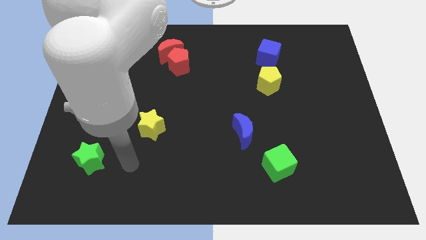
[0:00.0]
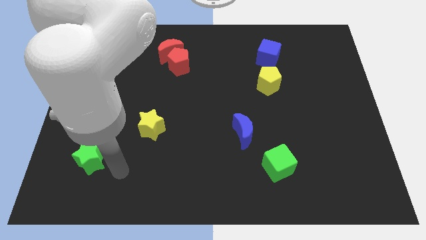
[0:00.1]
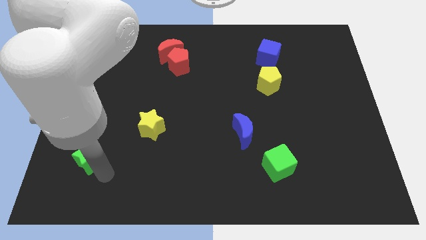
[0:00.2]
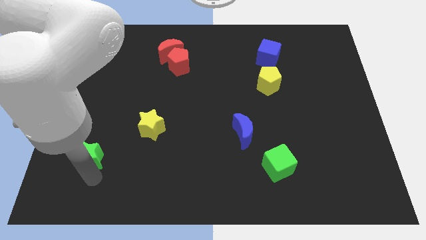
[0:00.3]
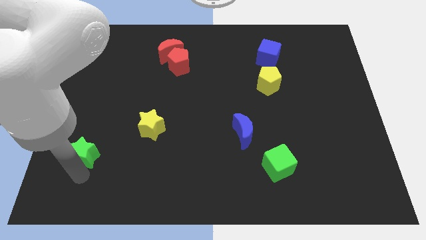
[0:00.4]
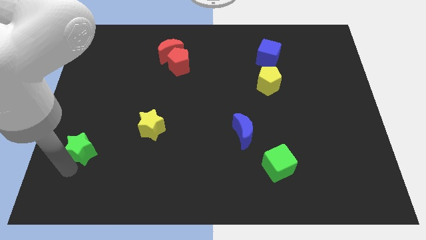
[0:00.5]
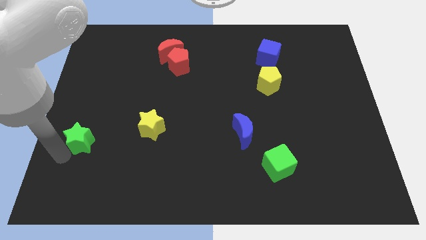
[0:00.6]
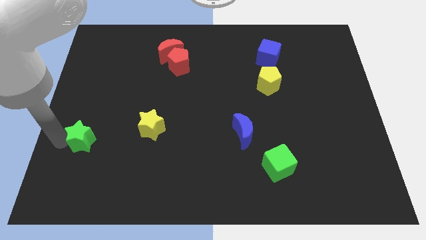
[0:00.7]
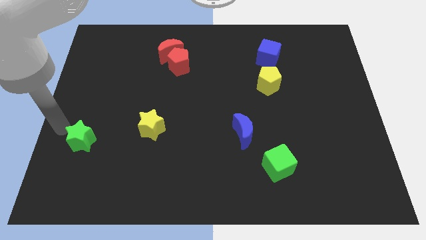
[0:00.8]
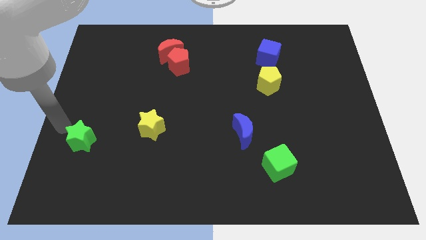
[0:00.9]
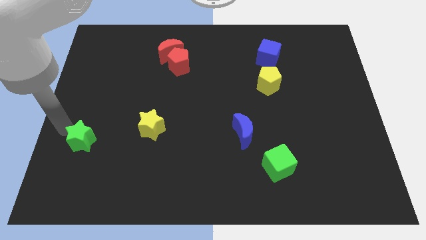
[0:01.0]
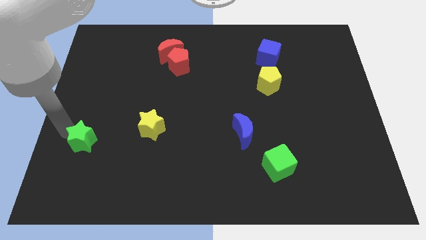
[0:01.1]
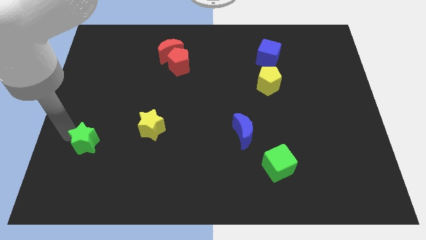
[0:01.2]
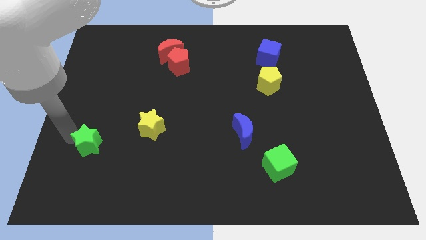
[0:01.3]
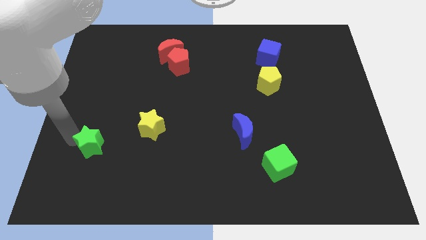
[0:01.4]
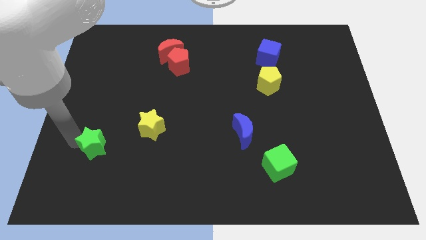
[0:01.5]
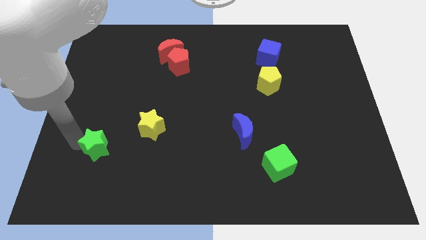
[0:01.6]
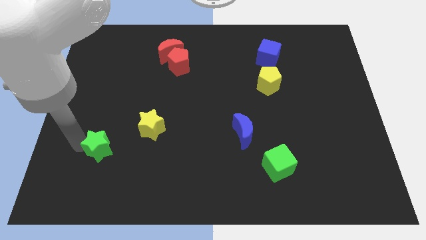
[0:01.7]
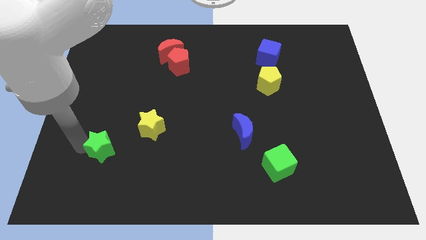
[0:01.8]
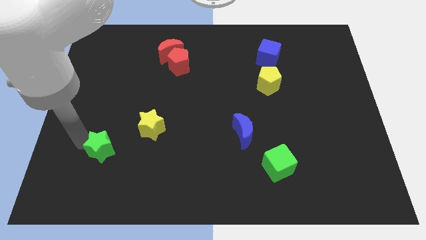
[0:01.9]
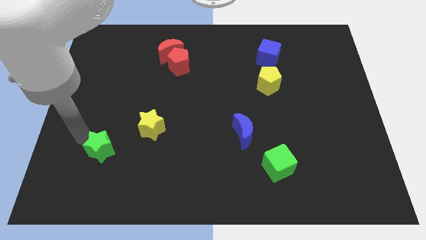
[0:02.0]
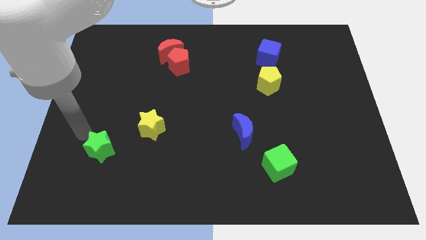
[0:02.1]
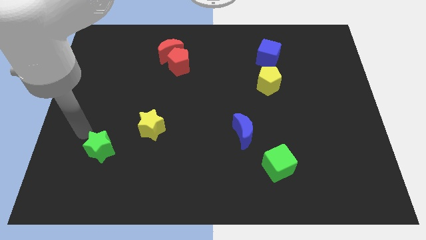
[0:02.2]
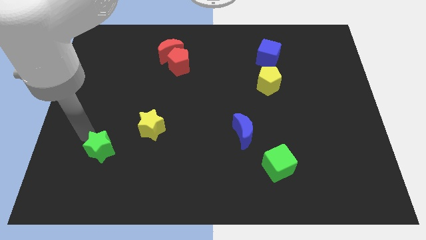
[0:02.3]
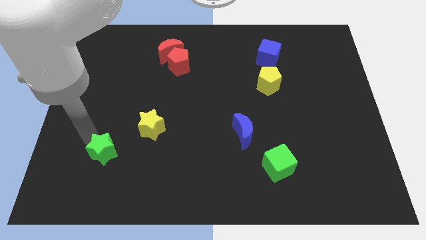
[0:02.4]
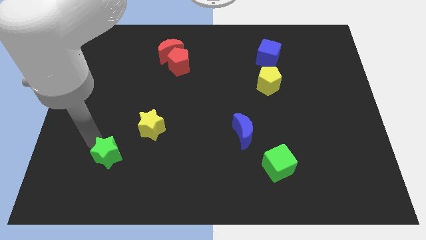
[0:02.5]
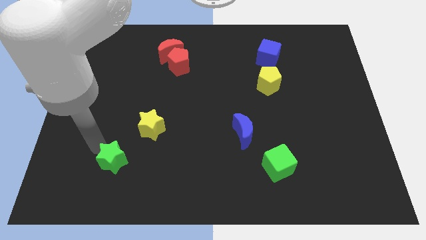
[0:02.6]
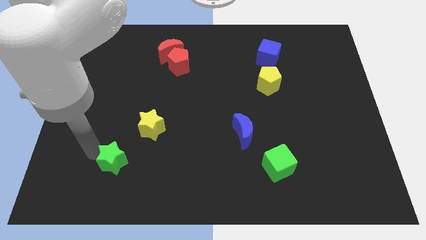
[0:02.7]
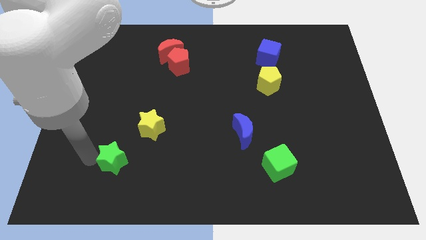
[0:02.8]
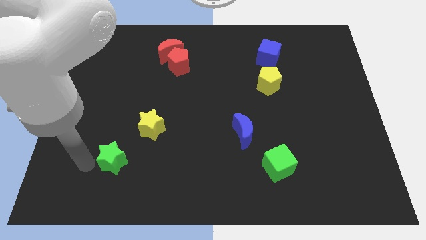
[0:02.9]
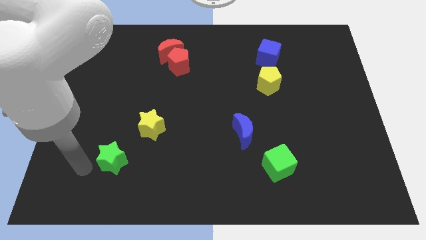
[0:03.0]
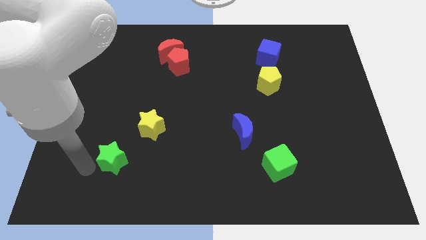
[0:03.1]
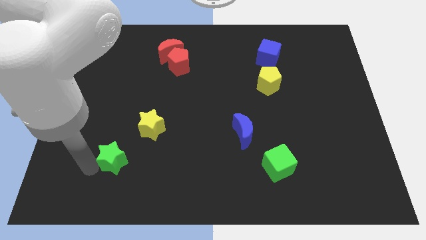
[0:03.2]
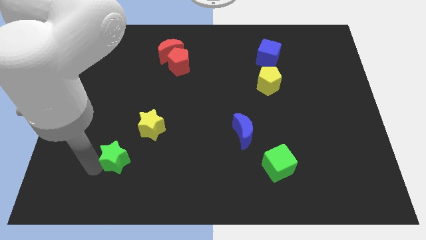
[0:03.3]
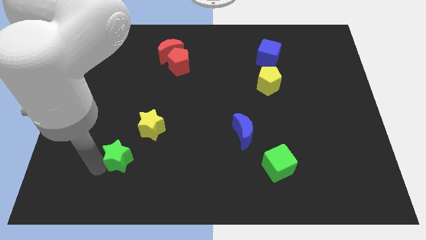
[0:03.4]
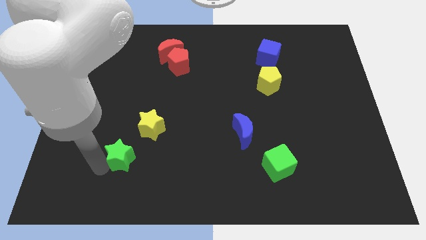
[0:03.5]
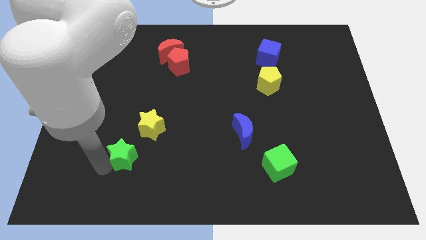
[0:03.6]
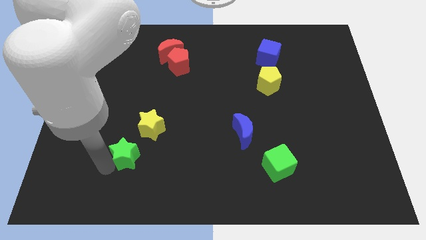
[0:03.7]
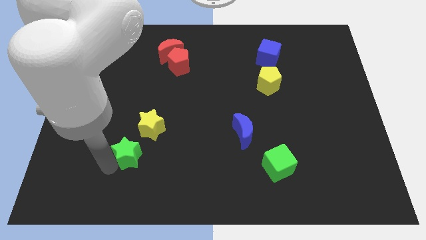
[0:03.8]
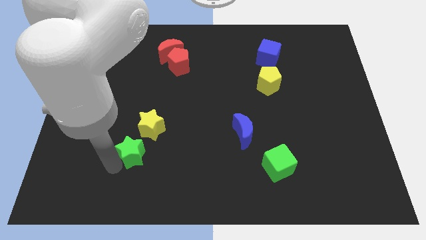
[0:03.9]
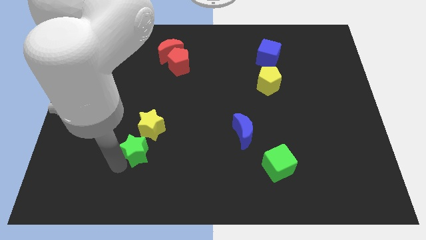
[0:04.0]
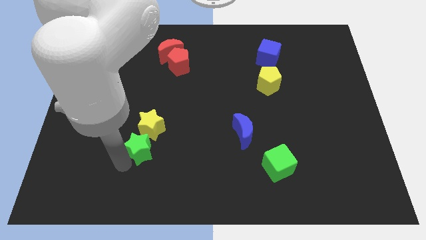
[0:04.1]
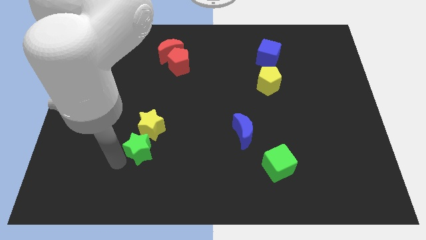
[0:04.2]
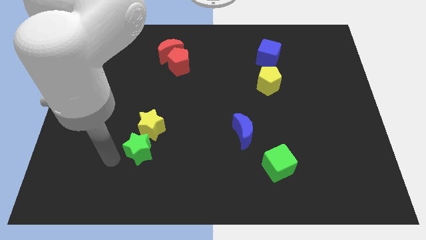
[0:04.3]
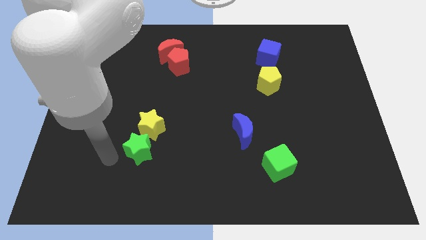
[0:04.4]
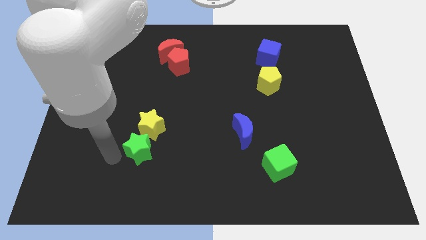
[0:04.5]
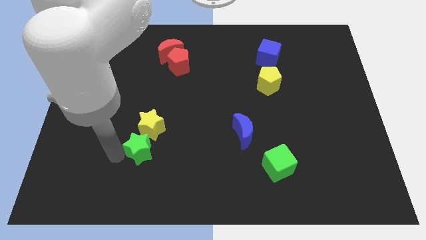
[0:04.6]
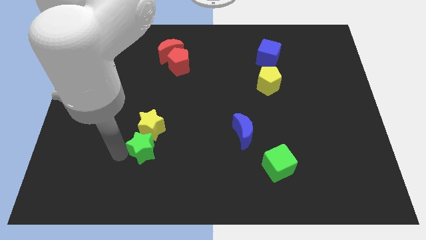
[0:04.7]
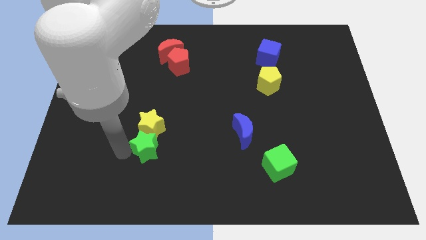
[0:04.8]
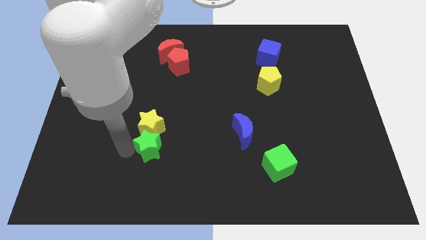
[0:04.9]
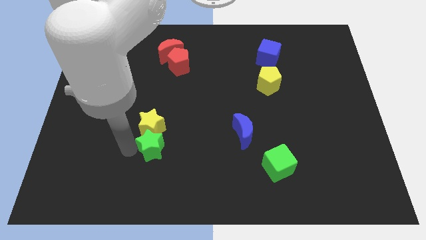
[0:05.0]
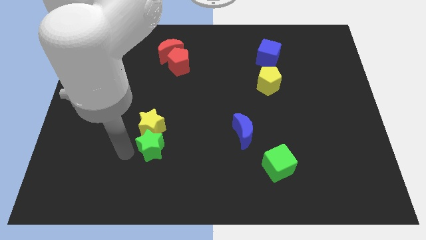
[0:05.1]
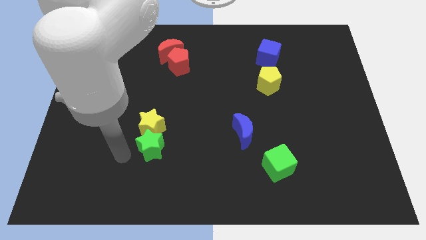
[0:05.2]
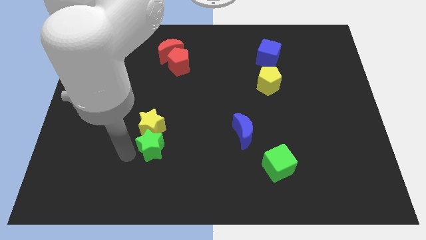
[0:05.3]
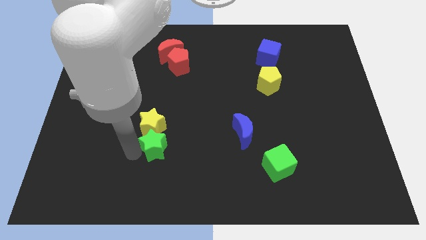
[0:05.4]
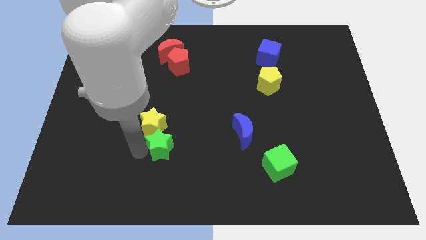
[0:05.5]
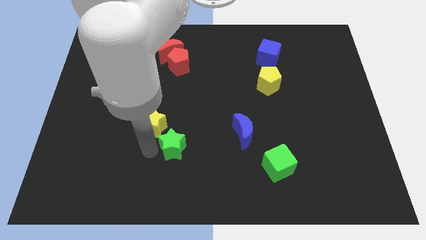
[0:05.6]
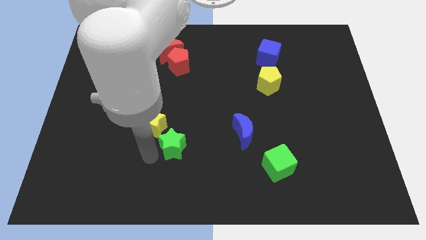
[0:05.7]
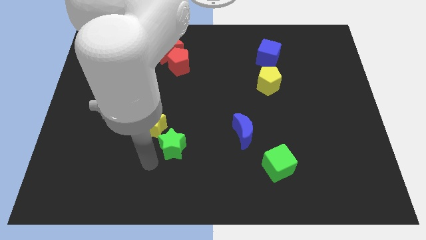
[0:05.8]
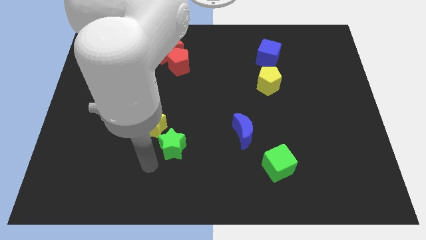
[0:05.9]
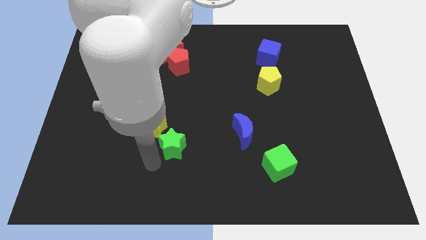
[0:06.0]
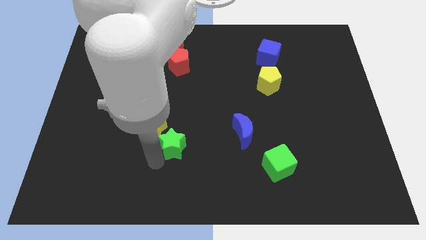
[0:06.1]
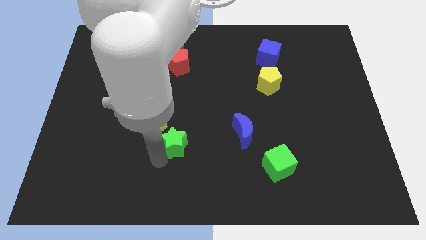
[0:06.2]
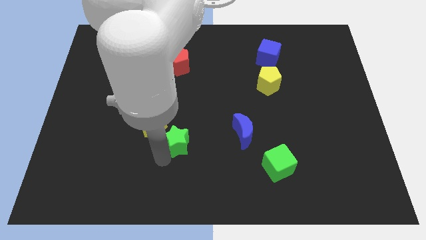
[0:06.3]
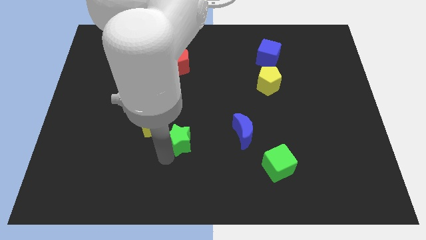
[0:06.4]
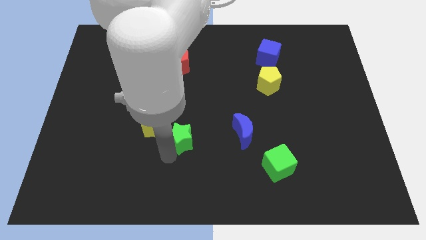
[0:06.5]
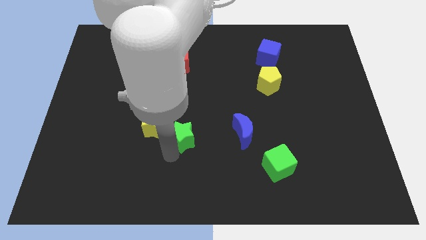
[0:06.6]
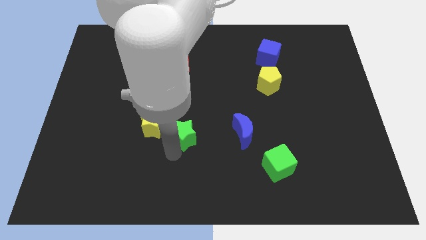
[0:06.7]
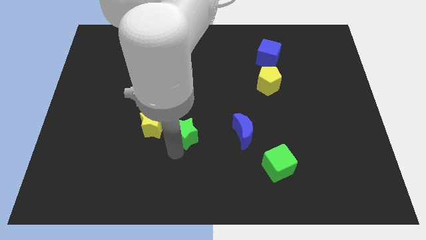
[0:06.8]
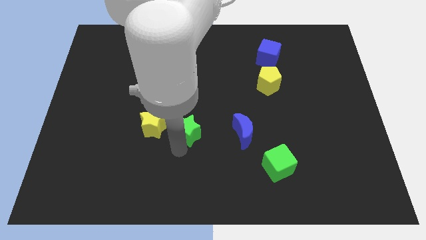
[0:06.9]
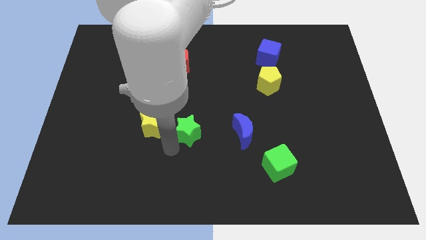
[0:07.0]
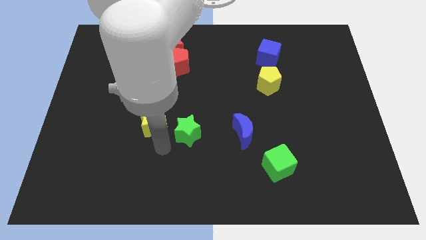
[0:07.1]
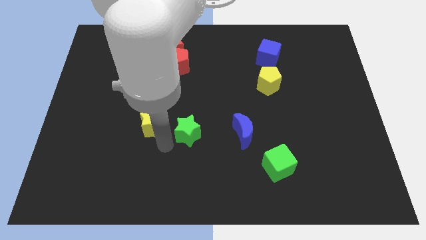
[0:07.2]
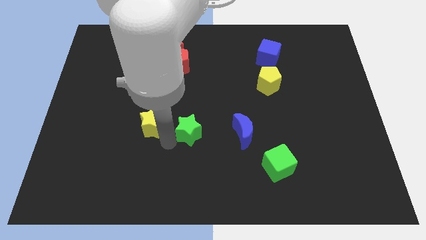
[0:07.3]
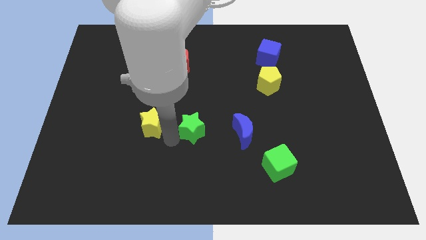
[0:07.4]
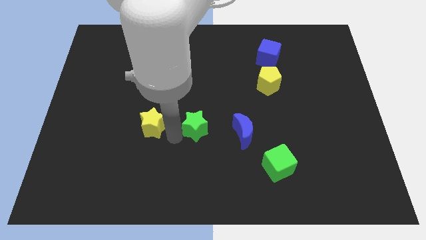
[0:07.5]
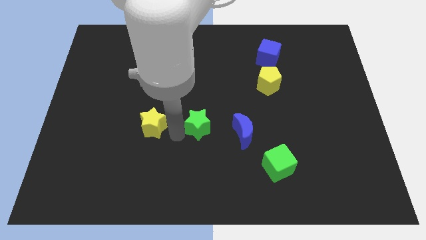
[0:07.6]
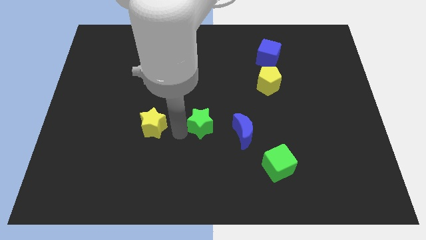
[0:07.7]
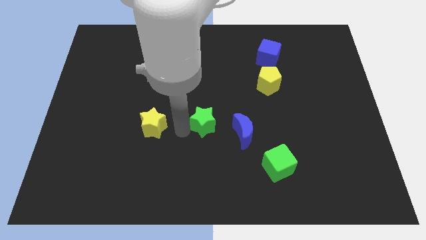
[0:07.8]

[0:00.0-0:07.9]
push the green star to the top left side of the blue moon
